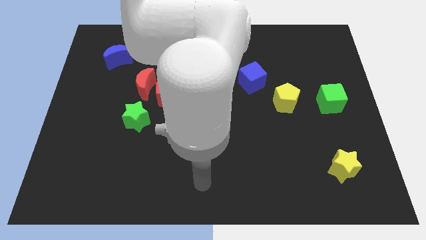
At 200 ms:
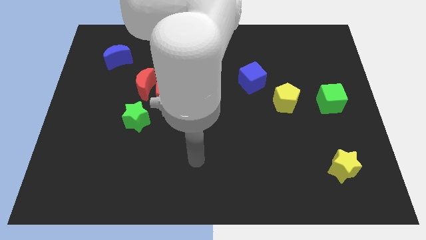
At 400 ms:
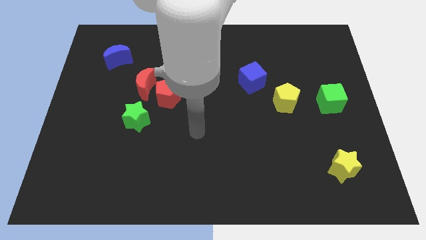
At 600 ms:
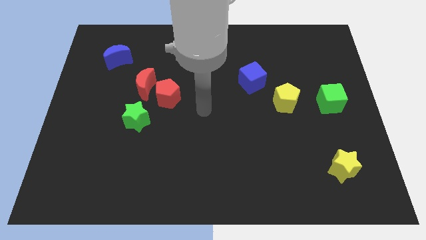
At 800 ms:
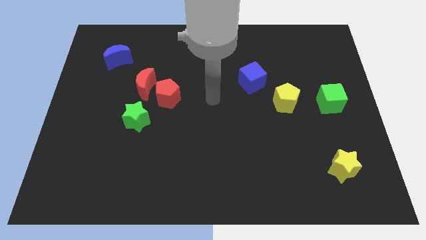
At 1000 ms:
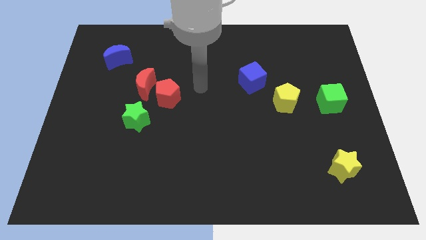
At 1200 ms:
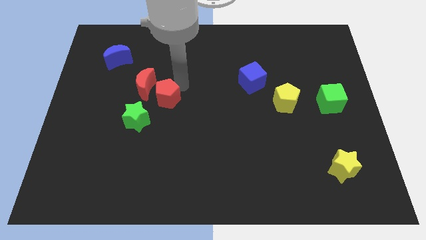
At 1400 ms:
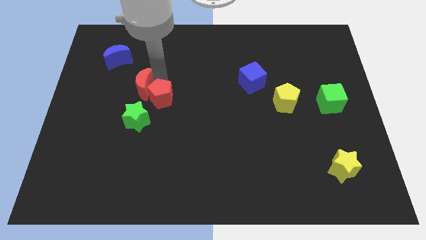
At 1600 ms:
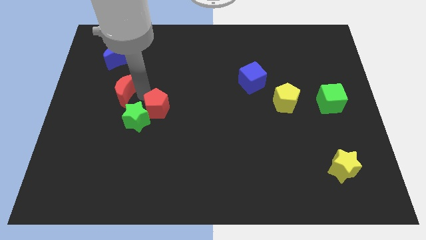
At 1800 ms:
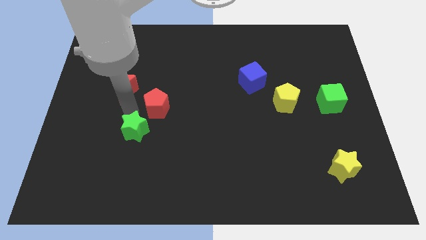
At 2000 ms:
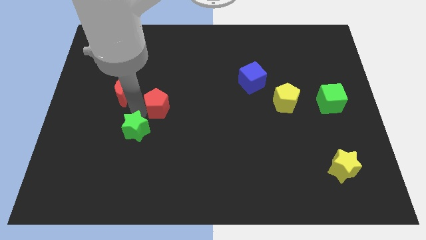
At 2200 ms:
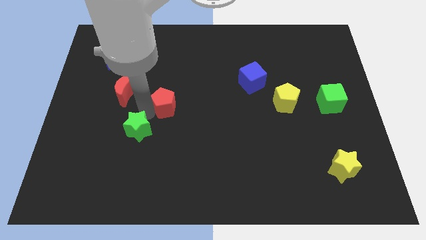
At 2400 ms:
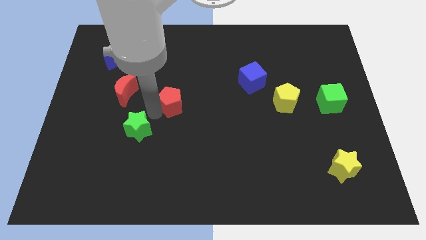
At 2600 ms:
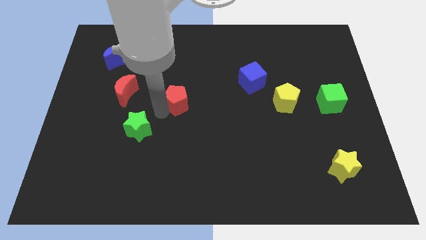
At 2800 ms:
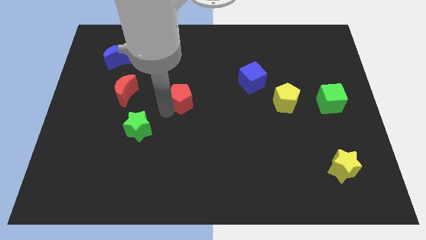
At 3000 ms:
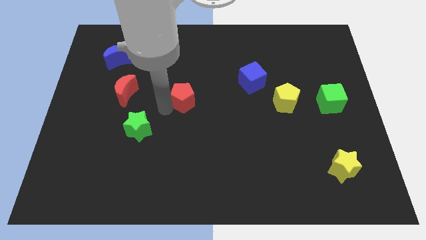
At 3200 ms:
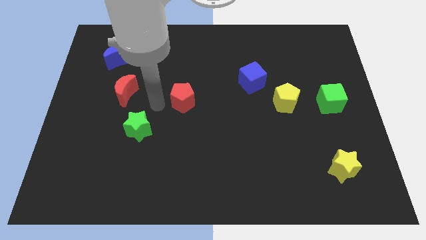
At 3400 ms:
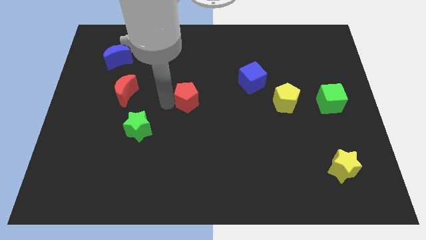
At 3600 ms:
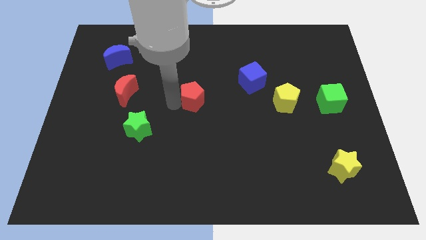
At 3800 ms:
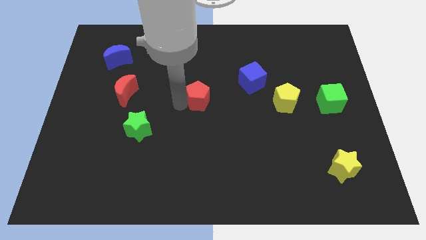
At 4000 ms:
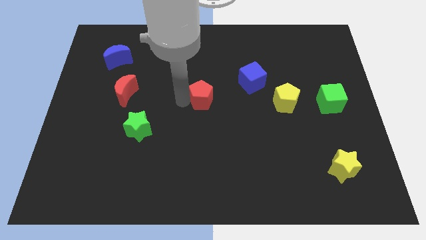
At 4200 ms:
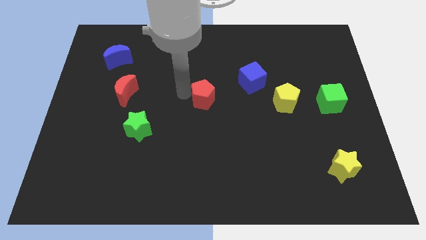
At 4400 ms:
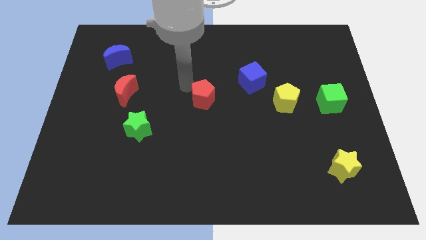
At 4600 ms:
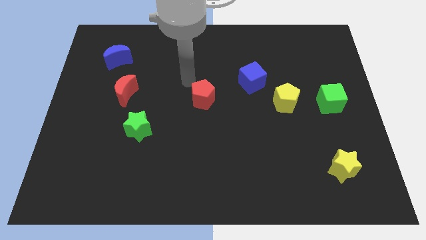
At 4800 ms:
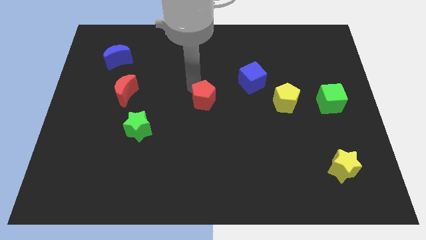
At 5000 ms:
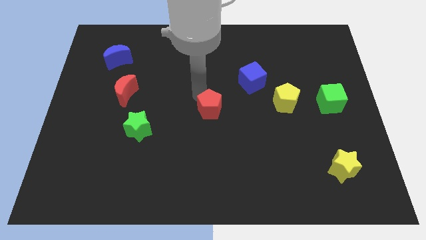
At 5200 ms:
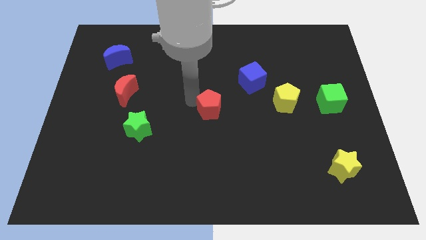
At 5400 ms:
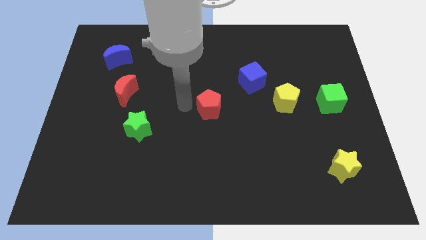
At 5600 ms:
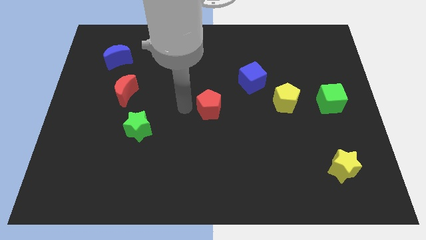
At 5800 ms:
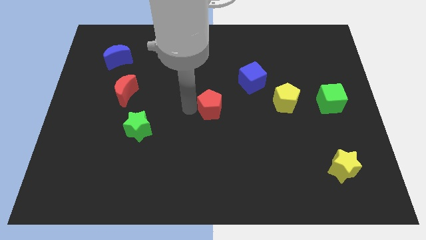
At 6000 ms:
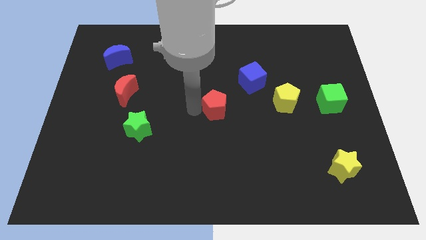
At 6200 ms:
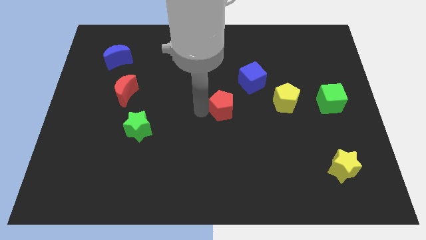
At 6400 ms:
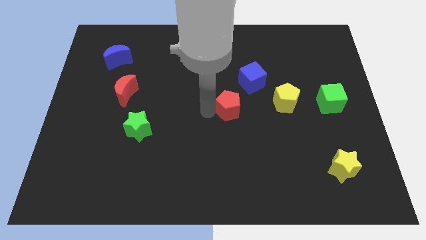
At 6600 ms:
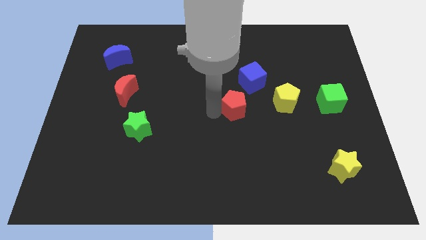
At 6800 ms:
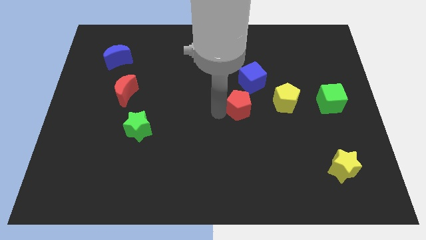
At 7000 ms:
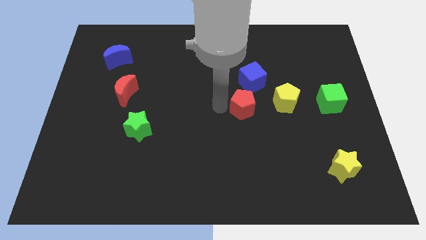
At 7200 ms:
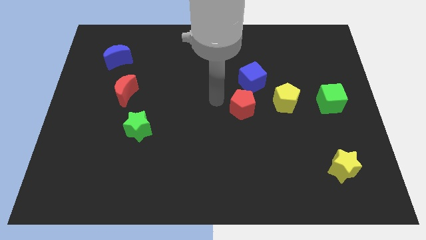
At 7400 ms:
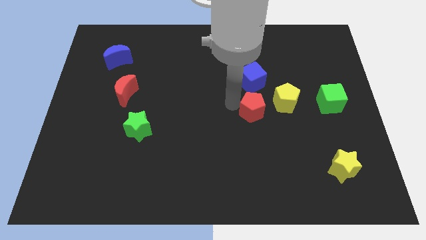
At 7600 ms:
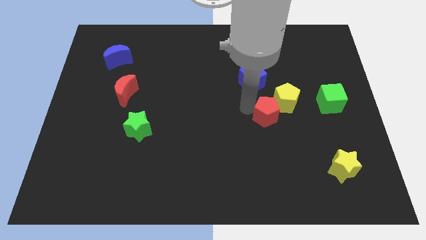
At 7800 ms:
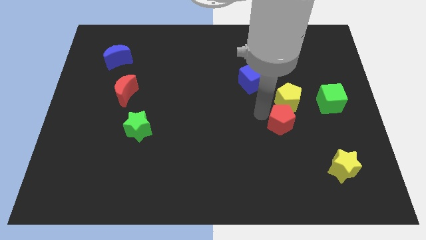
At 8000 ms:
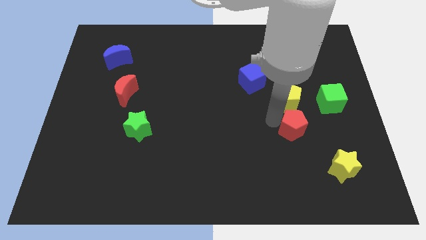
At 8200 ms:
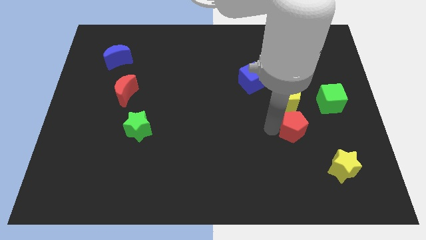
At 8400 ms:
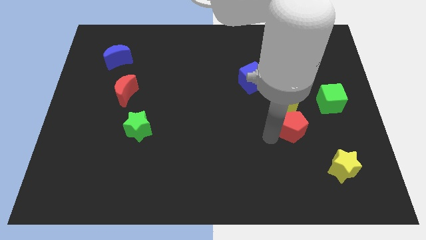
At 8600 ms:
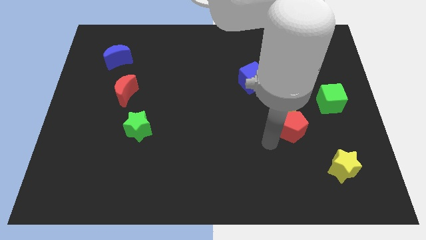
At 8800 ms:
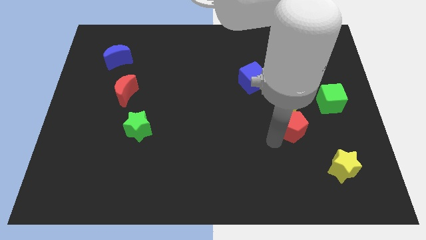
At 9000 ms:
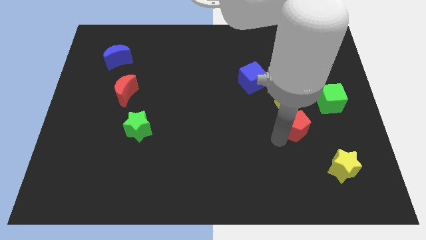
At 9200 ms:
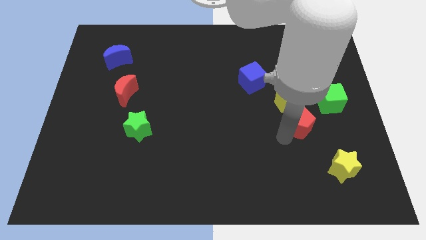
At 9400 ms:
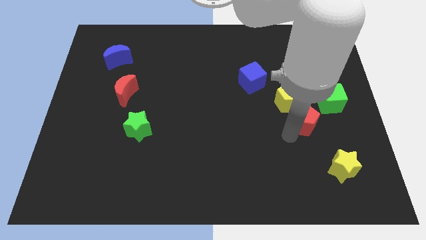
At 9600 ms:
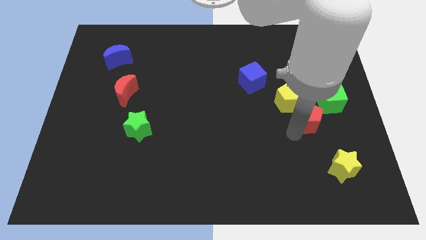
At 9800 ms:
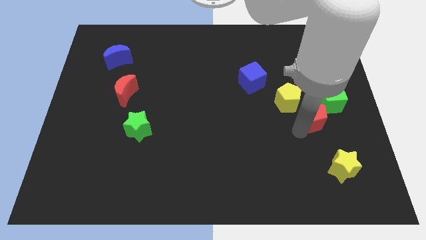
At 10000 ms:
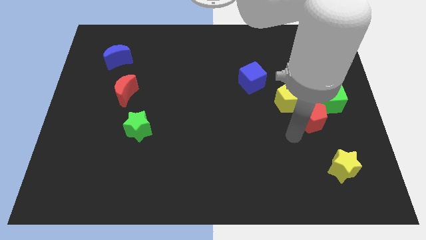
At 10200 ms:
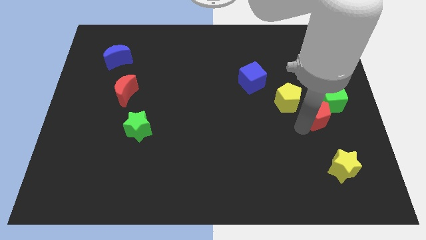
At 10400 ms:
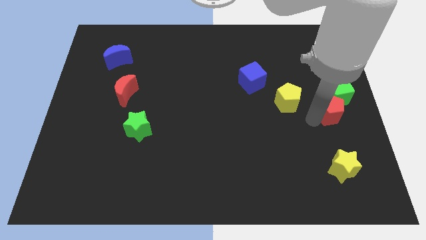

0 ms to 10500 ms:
push the red pentagon next to the green cube

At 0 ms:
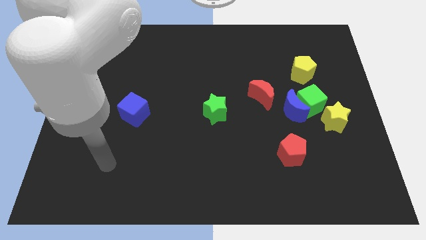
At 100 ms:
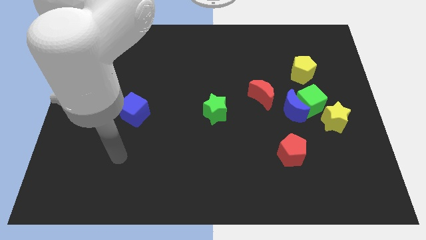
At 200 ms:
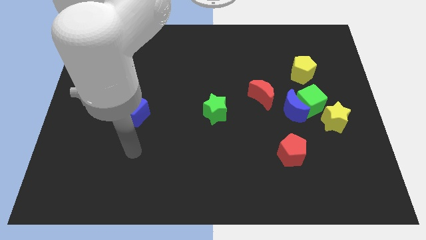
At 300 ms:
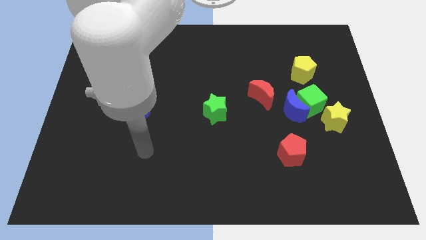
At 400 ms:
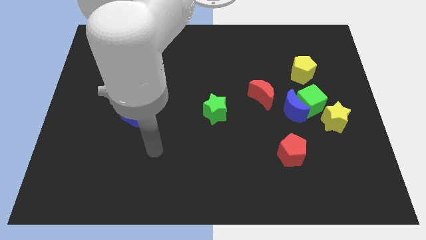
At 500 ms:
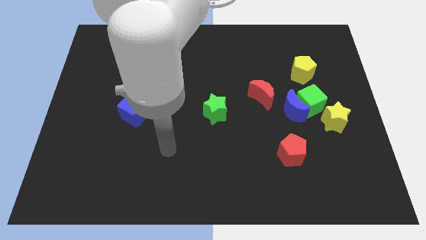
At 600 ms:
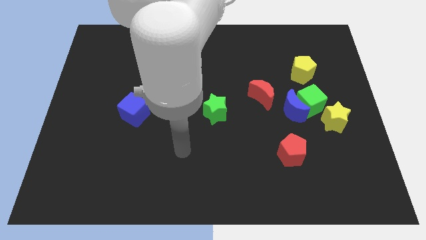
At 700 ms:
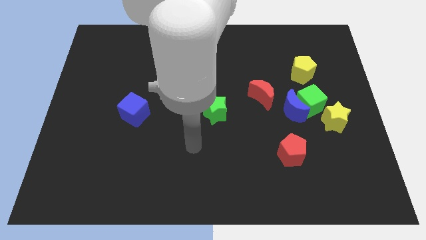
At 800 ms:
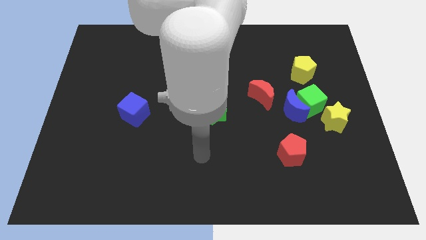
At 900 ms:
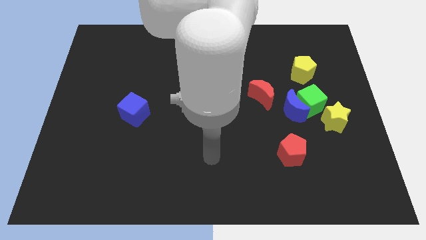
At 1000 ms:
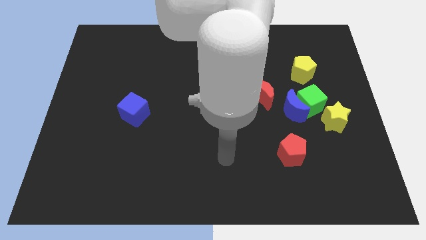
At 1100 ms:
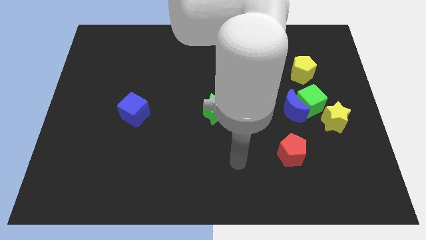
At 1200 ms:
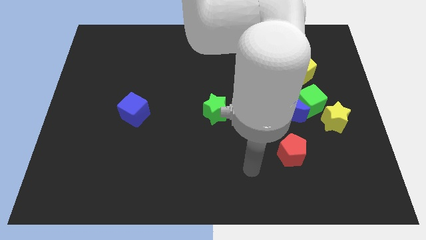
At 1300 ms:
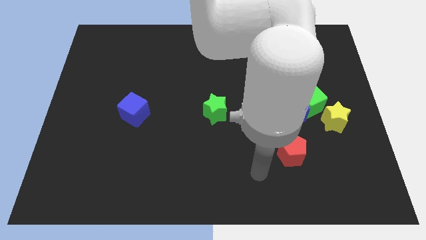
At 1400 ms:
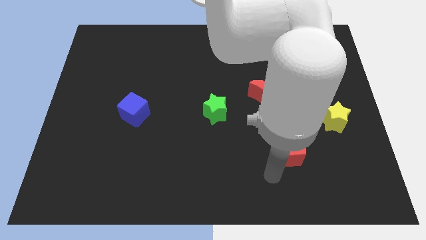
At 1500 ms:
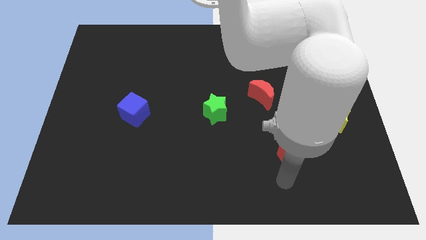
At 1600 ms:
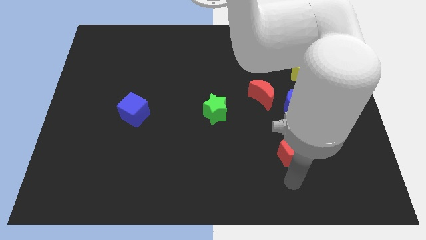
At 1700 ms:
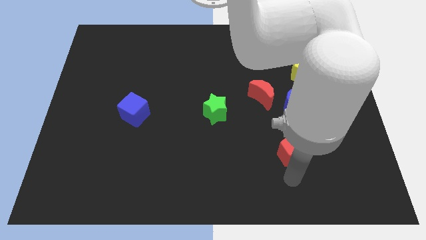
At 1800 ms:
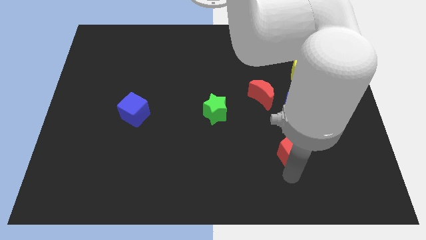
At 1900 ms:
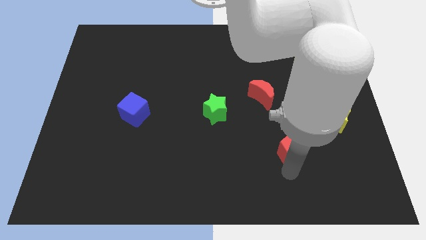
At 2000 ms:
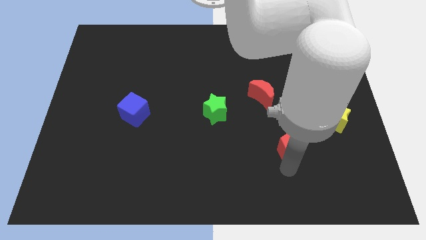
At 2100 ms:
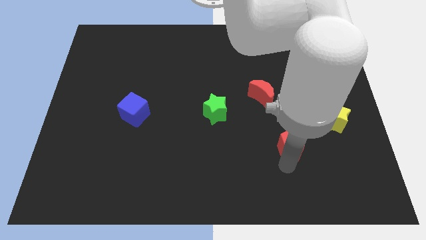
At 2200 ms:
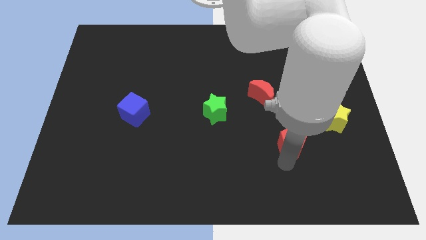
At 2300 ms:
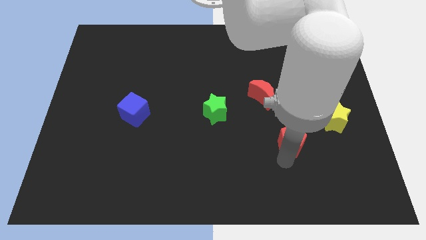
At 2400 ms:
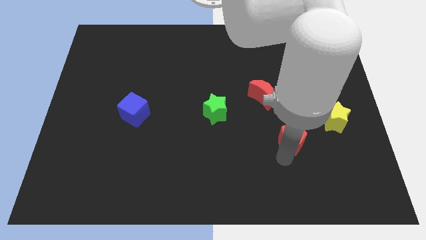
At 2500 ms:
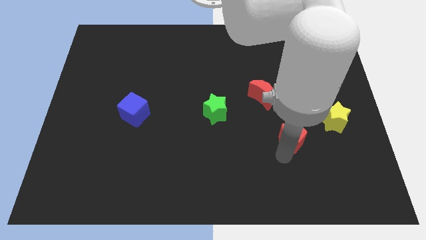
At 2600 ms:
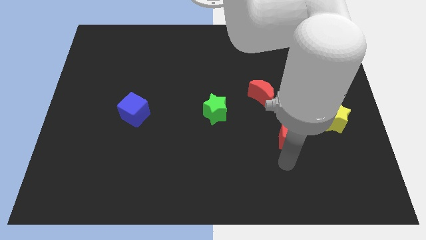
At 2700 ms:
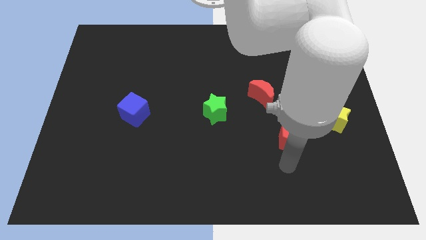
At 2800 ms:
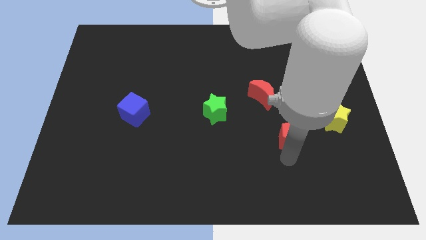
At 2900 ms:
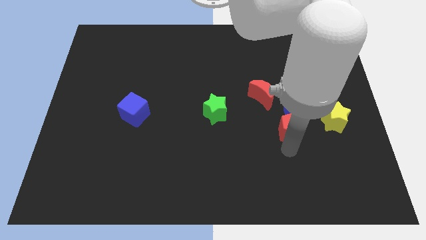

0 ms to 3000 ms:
move the red pentagon to the blue moon

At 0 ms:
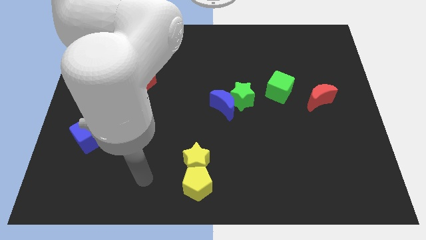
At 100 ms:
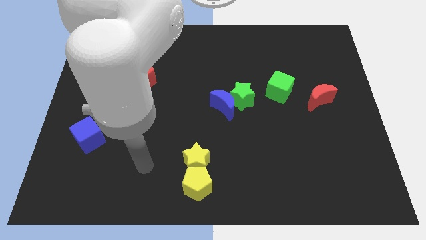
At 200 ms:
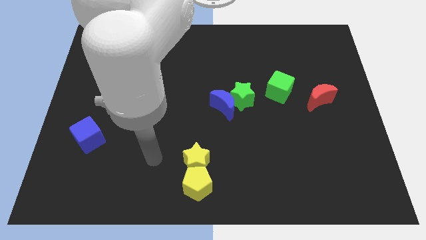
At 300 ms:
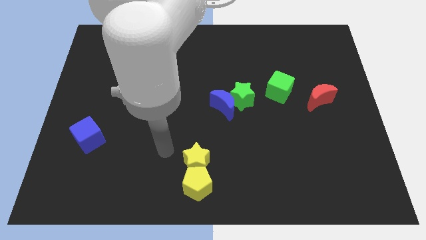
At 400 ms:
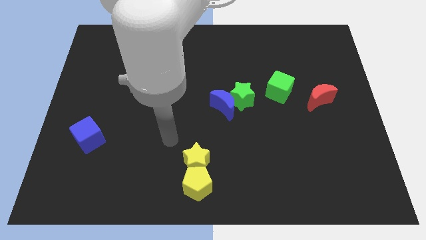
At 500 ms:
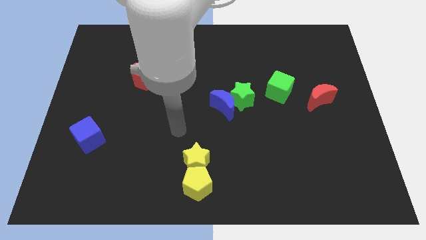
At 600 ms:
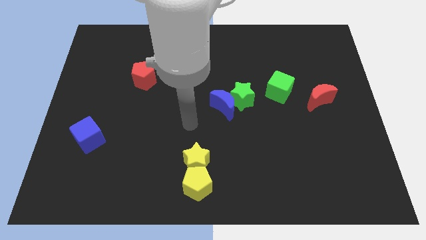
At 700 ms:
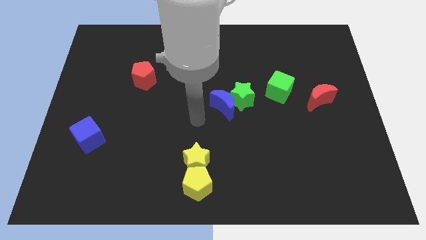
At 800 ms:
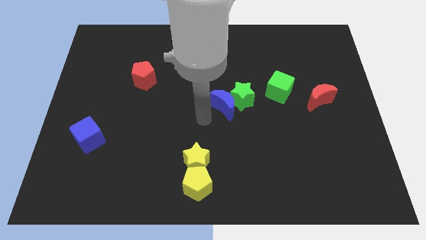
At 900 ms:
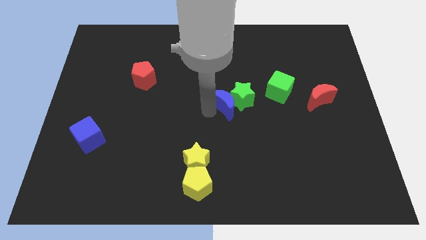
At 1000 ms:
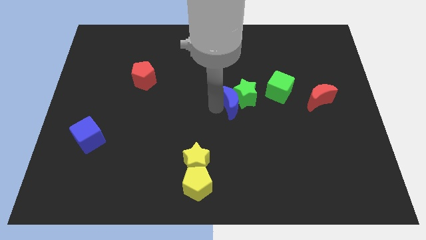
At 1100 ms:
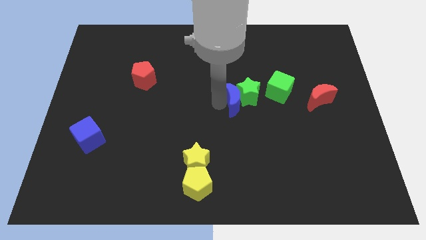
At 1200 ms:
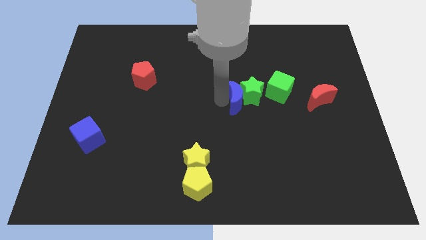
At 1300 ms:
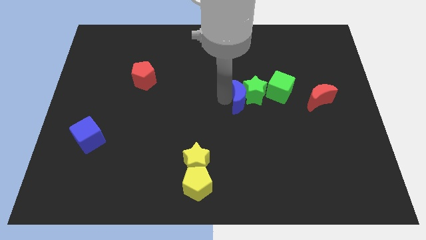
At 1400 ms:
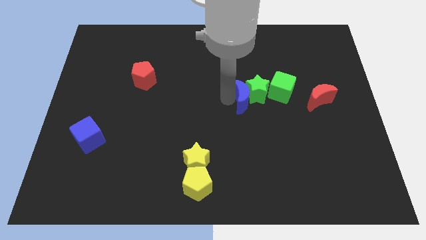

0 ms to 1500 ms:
push the green star towards the green cube
